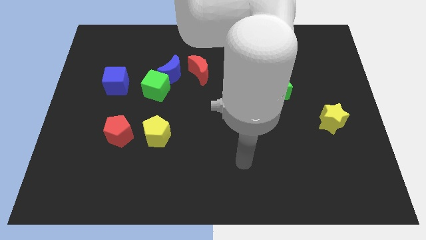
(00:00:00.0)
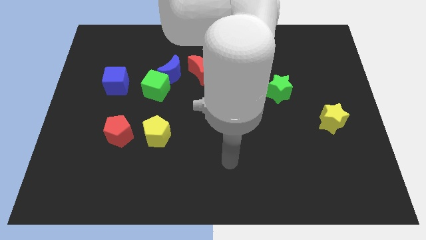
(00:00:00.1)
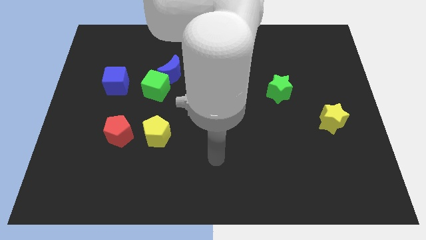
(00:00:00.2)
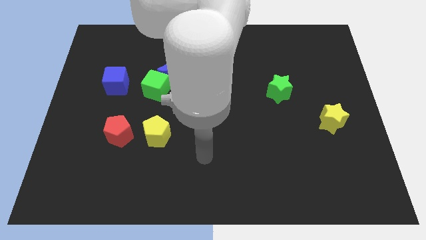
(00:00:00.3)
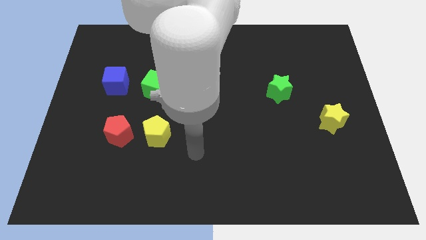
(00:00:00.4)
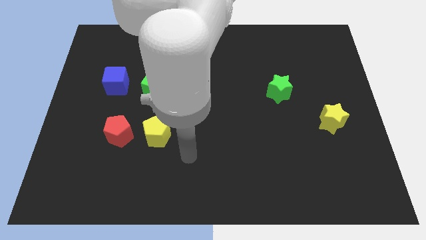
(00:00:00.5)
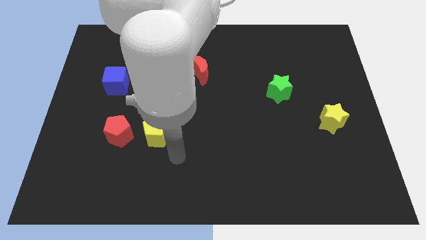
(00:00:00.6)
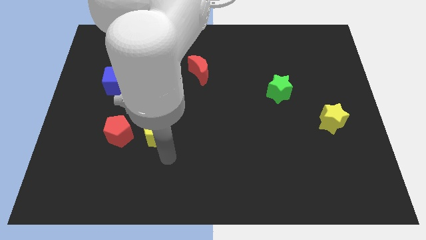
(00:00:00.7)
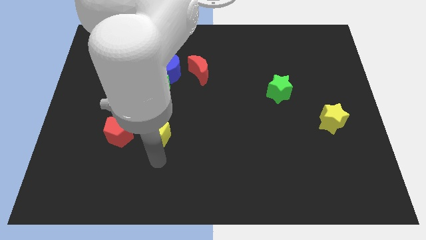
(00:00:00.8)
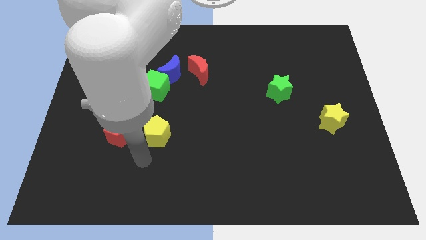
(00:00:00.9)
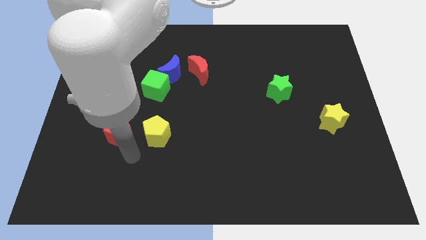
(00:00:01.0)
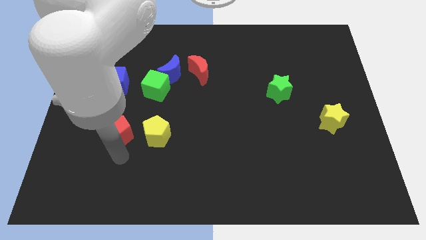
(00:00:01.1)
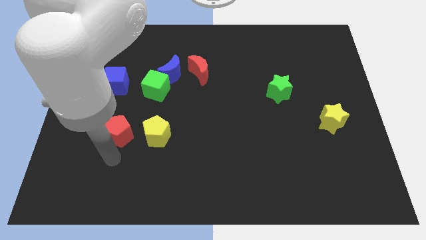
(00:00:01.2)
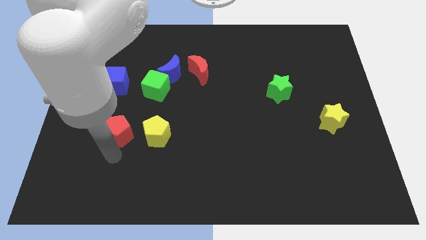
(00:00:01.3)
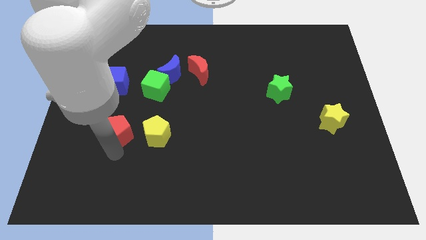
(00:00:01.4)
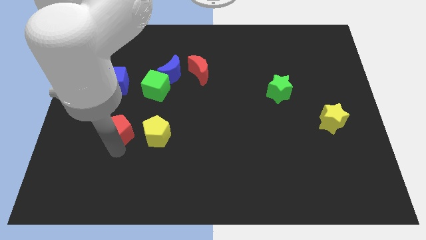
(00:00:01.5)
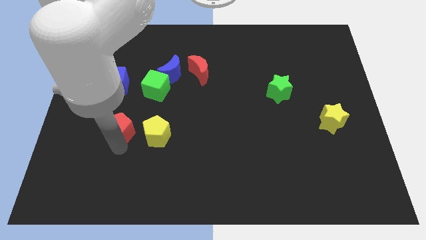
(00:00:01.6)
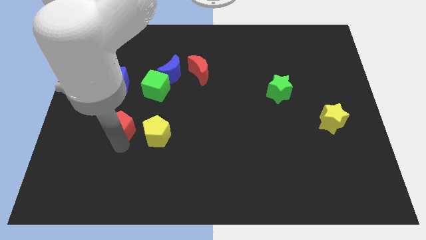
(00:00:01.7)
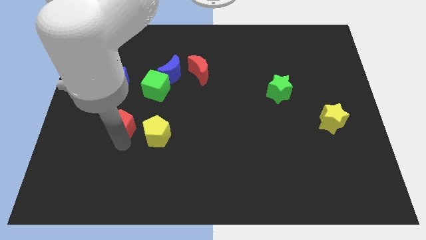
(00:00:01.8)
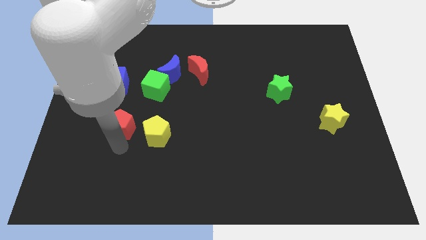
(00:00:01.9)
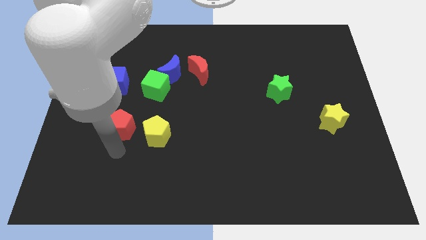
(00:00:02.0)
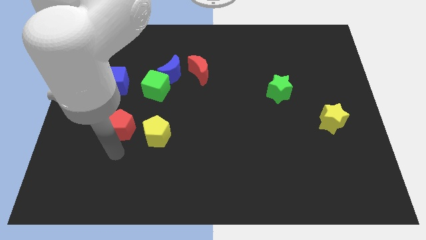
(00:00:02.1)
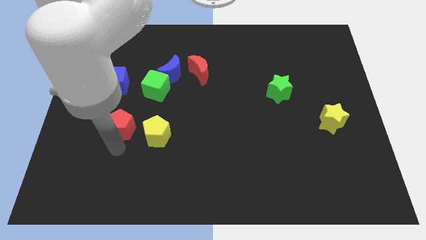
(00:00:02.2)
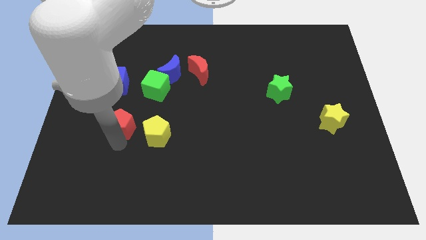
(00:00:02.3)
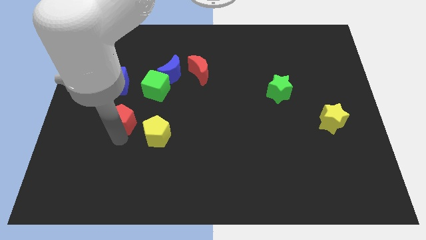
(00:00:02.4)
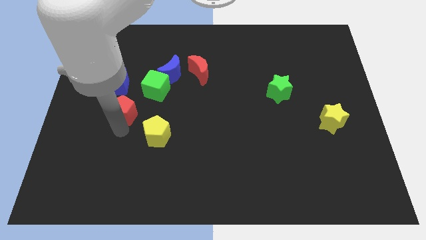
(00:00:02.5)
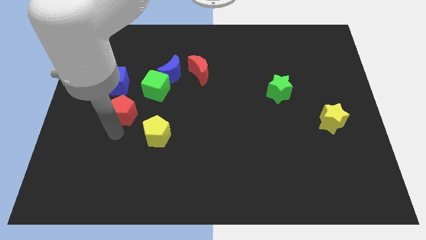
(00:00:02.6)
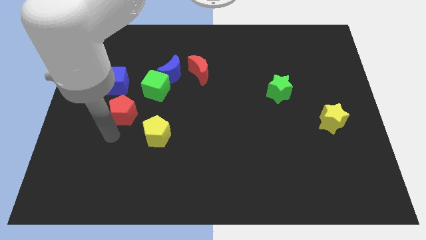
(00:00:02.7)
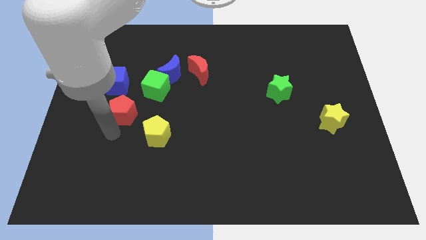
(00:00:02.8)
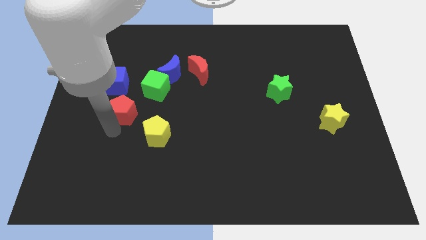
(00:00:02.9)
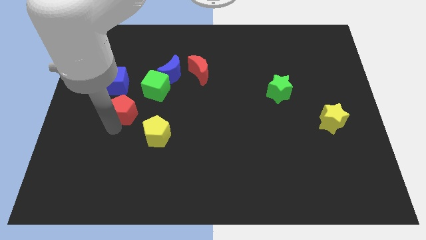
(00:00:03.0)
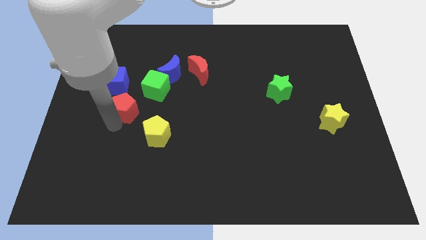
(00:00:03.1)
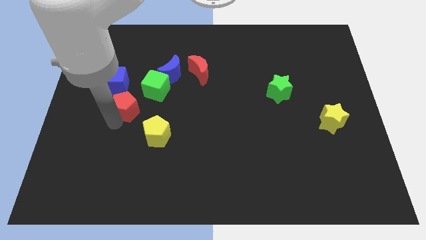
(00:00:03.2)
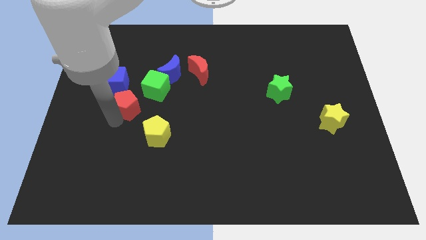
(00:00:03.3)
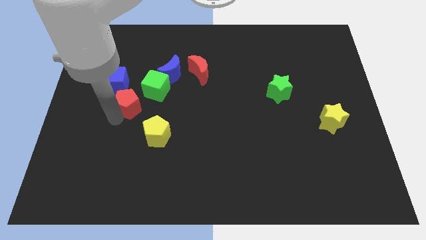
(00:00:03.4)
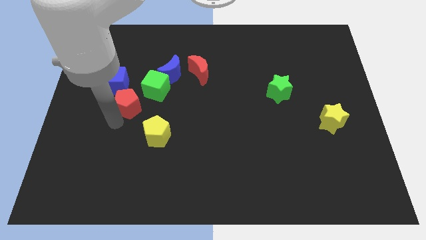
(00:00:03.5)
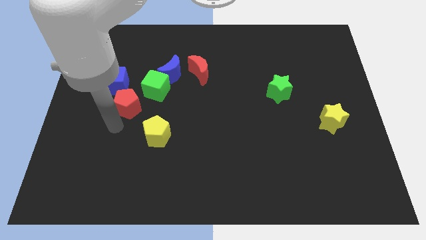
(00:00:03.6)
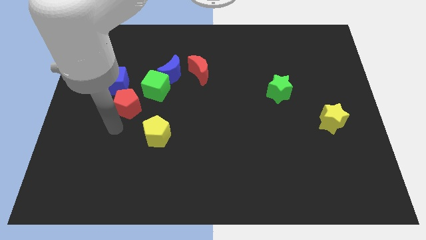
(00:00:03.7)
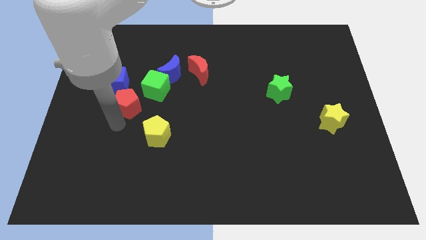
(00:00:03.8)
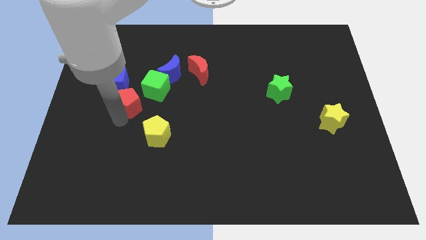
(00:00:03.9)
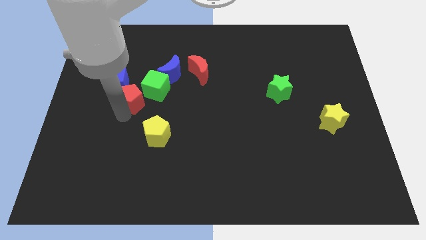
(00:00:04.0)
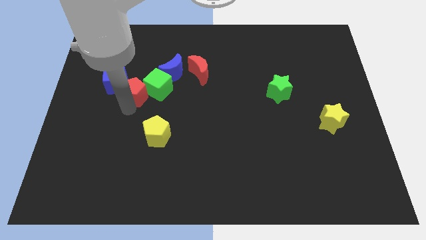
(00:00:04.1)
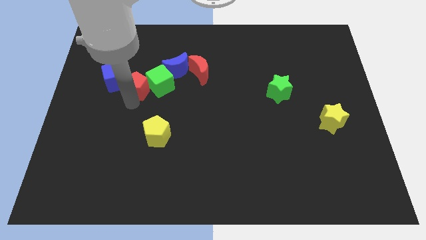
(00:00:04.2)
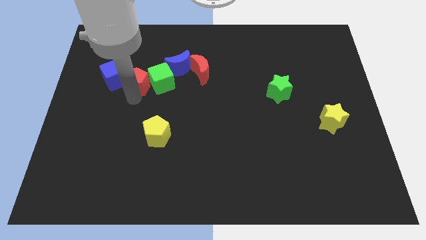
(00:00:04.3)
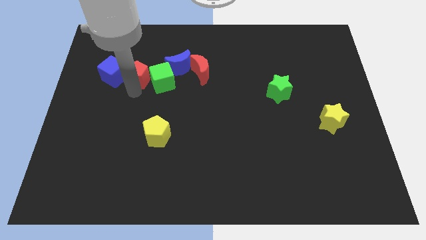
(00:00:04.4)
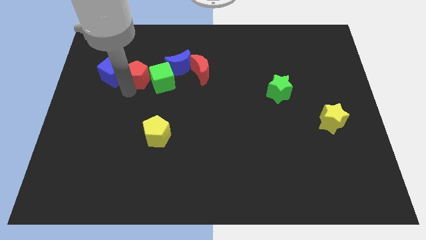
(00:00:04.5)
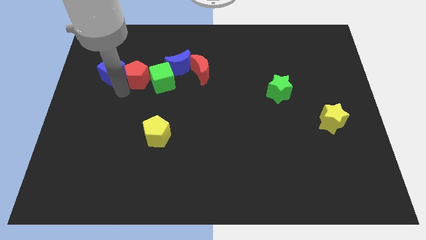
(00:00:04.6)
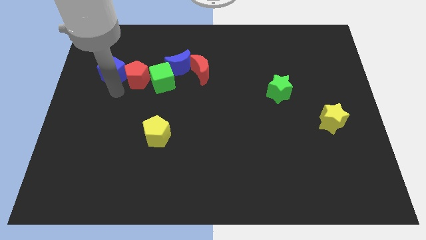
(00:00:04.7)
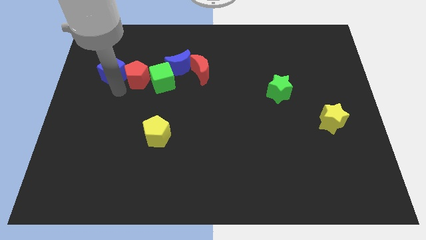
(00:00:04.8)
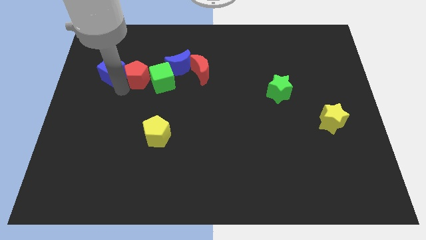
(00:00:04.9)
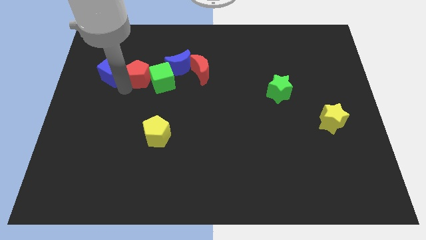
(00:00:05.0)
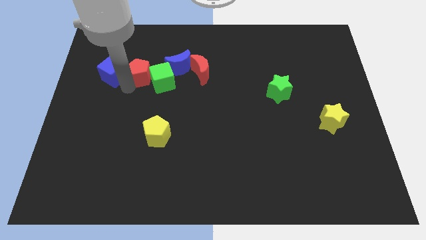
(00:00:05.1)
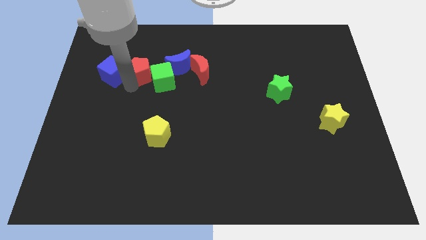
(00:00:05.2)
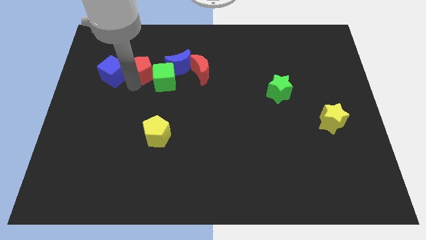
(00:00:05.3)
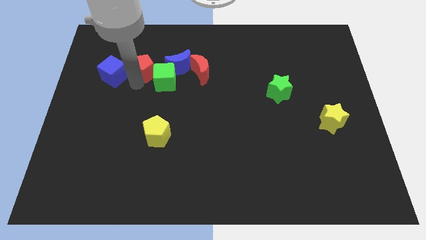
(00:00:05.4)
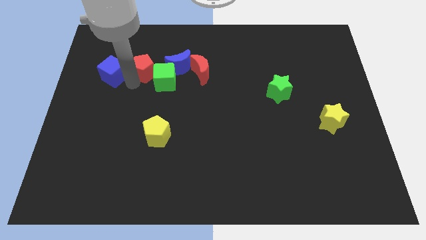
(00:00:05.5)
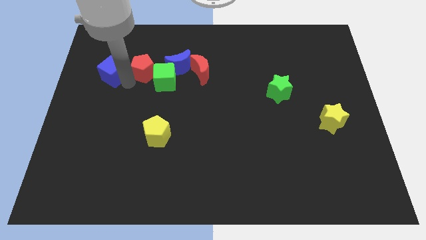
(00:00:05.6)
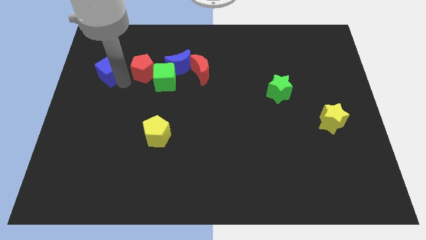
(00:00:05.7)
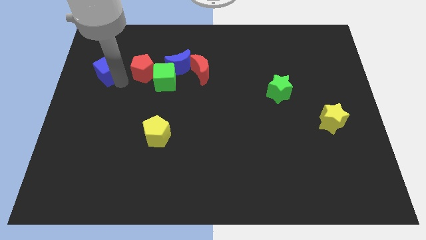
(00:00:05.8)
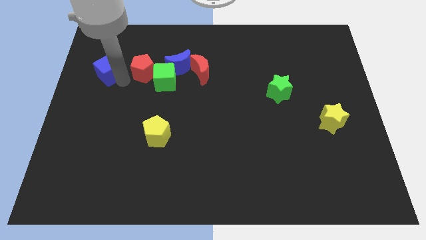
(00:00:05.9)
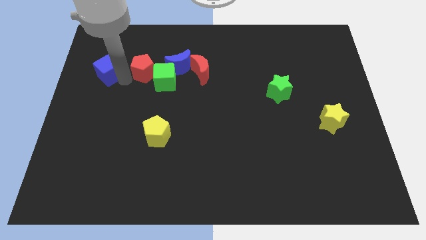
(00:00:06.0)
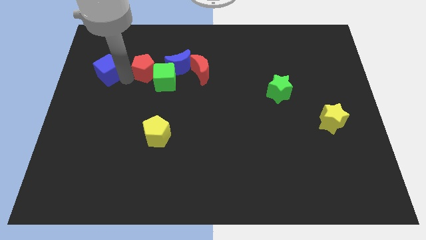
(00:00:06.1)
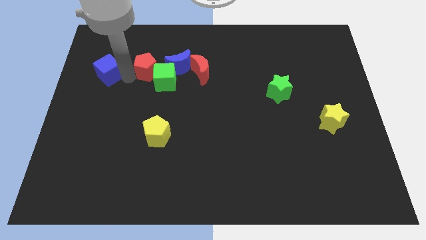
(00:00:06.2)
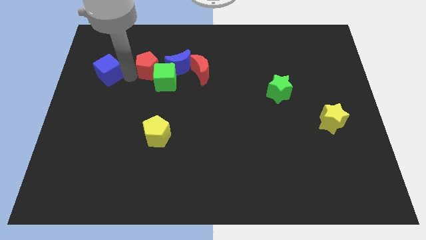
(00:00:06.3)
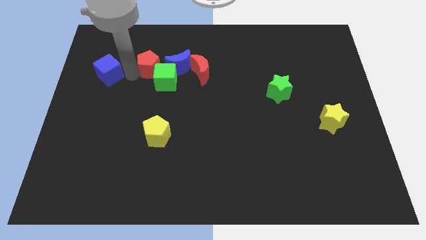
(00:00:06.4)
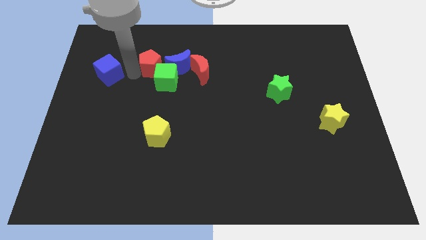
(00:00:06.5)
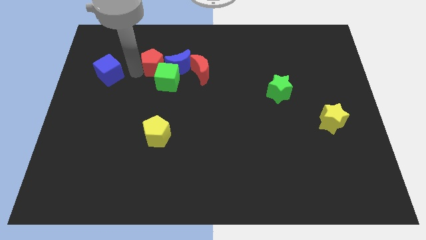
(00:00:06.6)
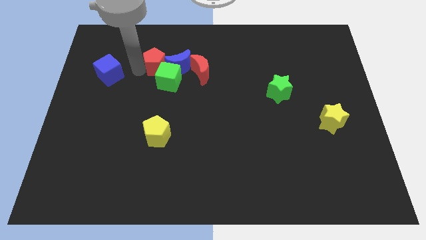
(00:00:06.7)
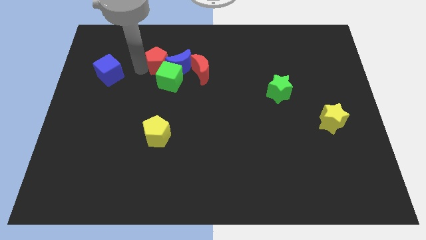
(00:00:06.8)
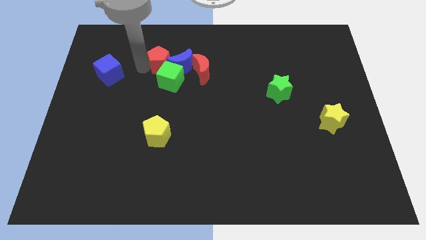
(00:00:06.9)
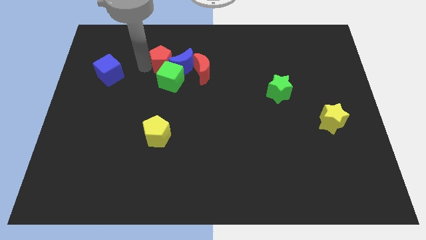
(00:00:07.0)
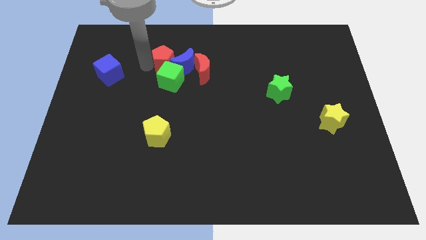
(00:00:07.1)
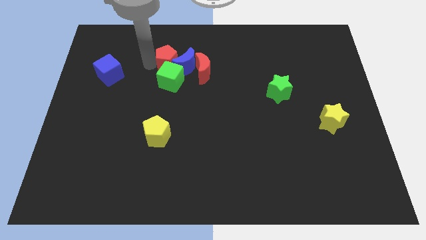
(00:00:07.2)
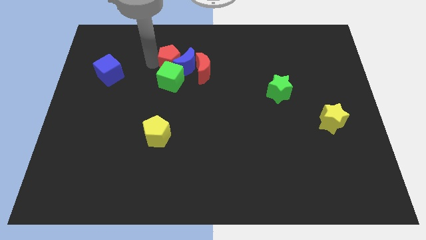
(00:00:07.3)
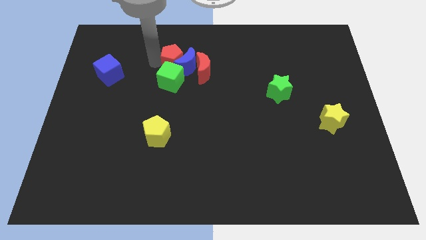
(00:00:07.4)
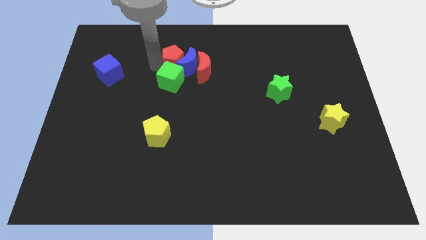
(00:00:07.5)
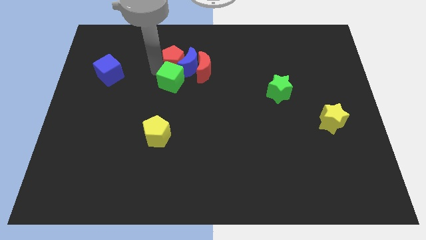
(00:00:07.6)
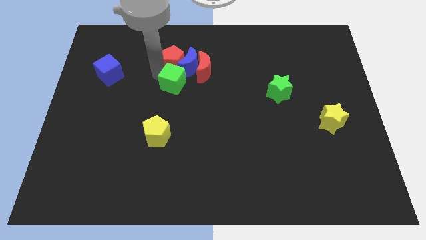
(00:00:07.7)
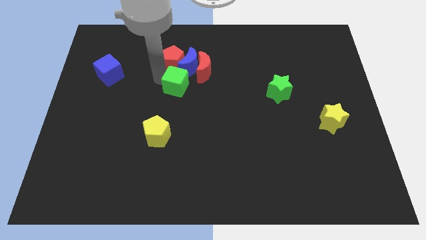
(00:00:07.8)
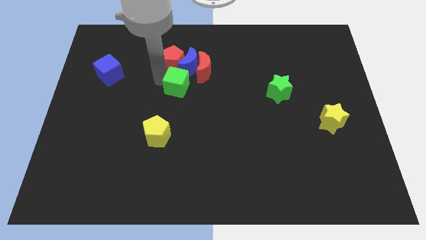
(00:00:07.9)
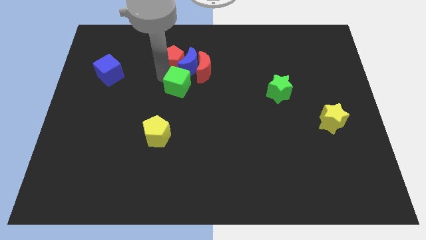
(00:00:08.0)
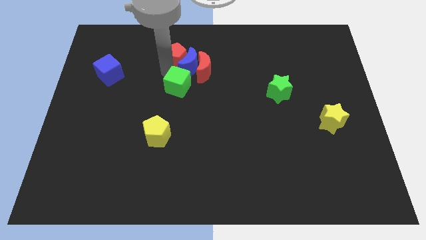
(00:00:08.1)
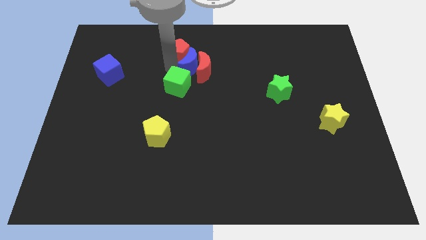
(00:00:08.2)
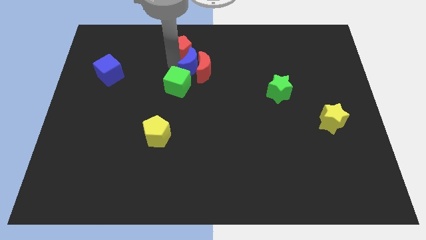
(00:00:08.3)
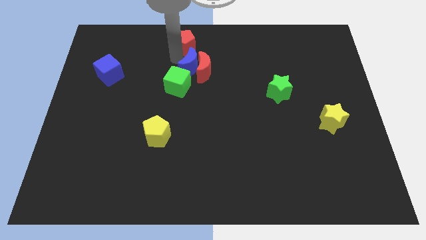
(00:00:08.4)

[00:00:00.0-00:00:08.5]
move the red pentagon to the top side
